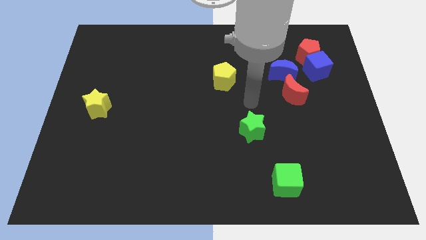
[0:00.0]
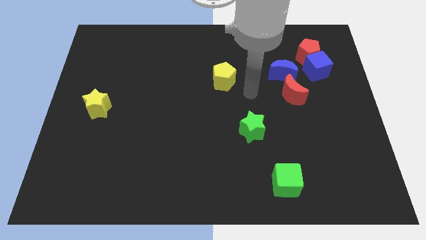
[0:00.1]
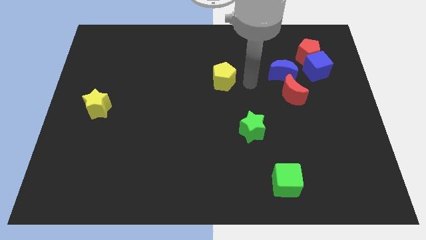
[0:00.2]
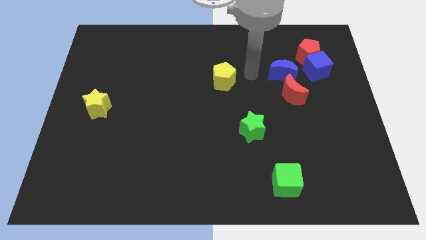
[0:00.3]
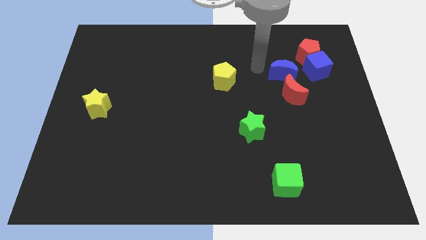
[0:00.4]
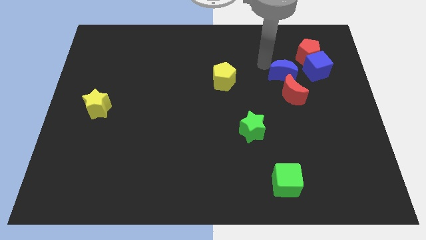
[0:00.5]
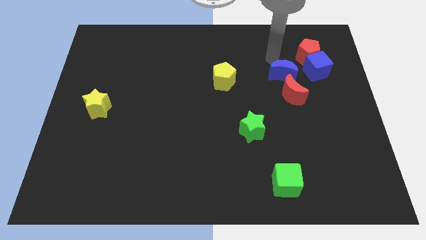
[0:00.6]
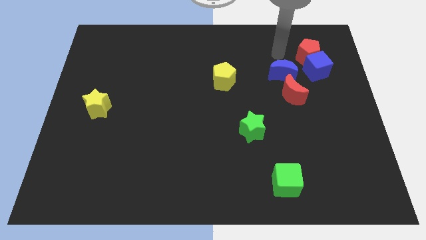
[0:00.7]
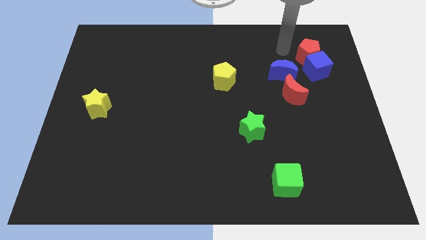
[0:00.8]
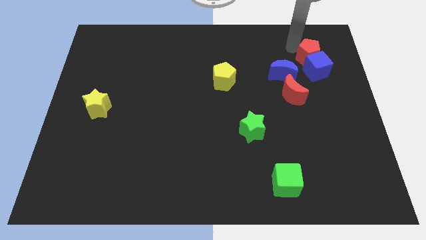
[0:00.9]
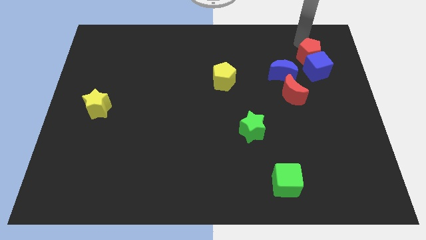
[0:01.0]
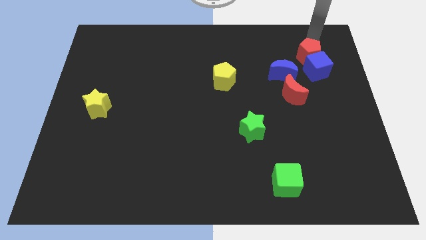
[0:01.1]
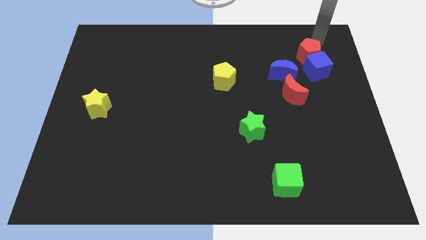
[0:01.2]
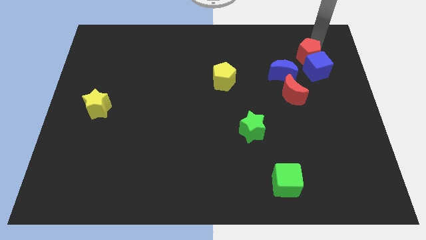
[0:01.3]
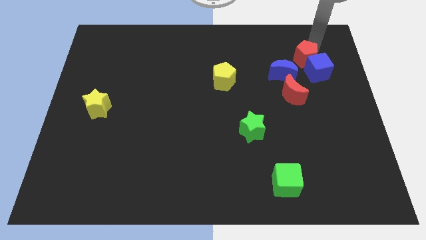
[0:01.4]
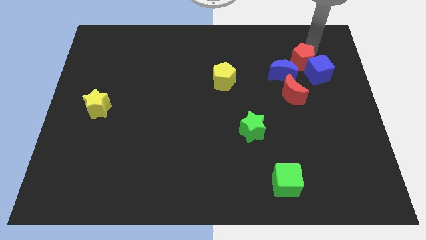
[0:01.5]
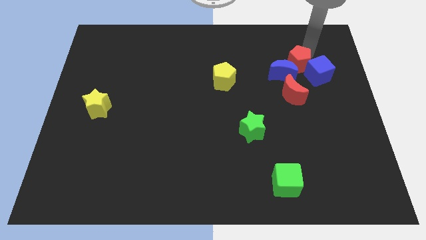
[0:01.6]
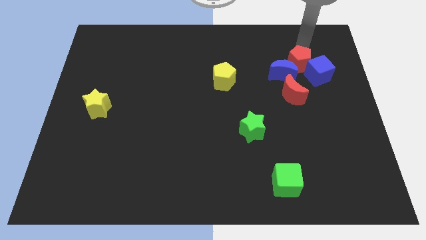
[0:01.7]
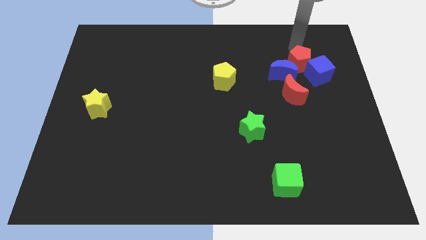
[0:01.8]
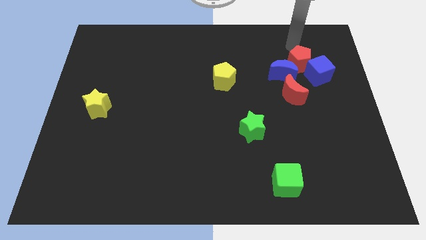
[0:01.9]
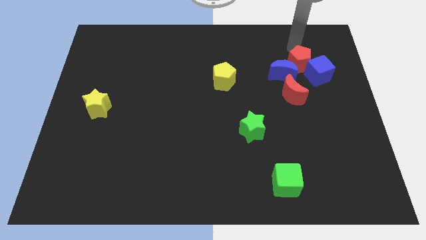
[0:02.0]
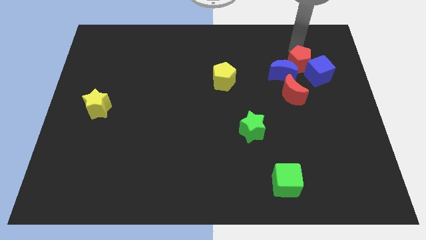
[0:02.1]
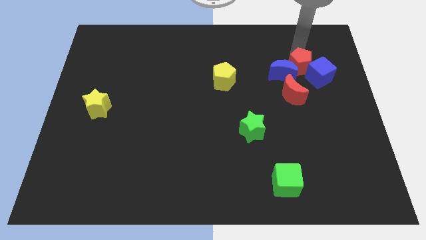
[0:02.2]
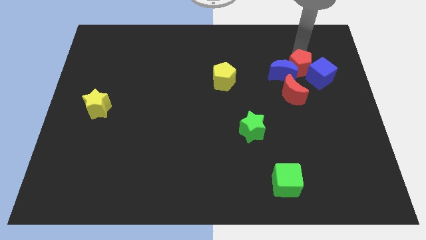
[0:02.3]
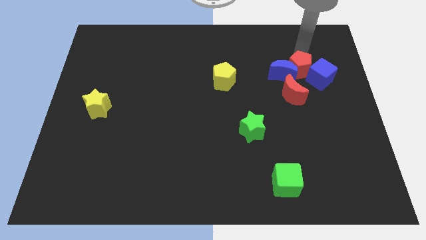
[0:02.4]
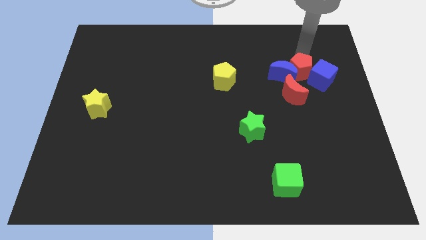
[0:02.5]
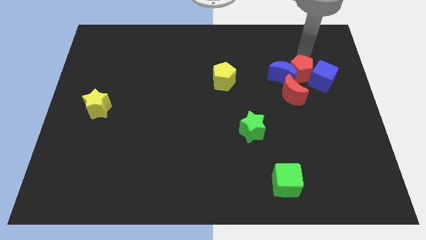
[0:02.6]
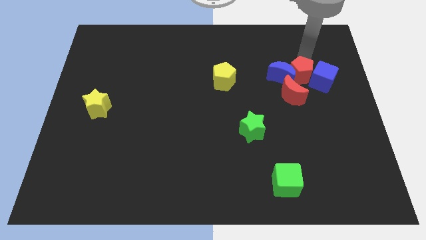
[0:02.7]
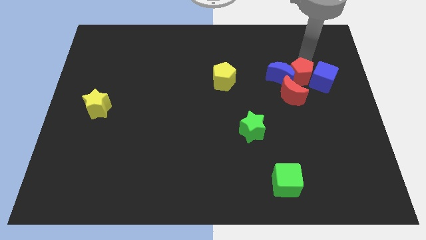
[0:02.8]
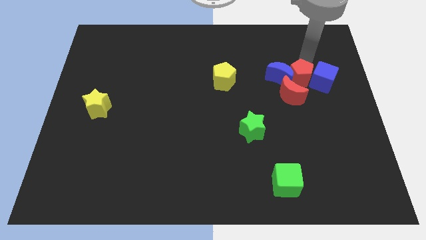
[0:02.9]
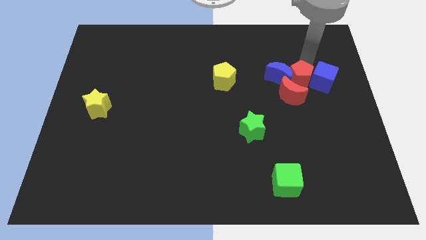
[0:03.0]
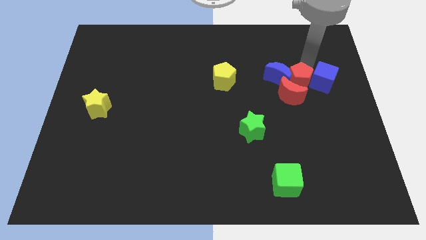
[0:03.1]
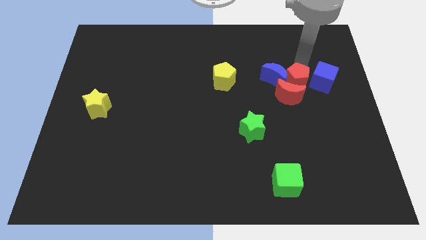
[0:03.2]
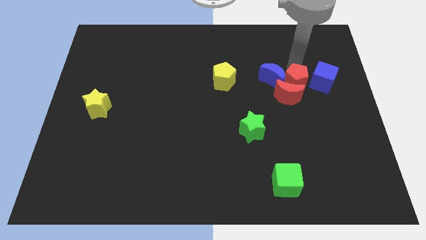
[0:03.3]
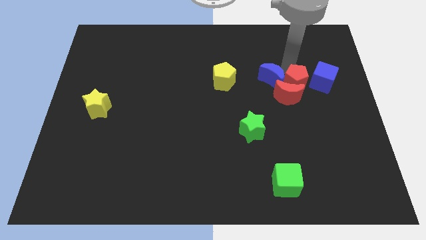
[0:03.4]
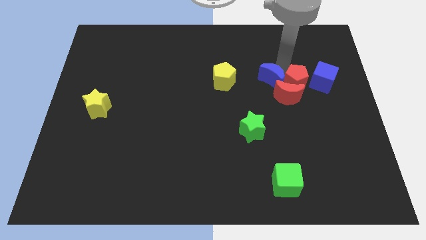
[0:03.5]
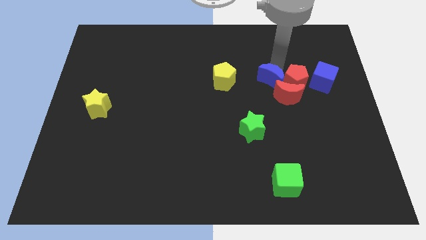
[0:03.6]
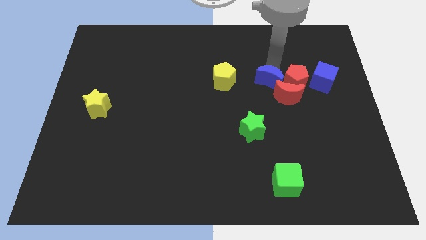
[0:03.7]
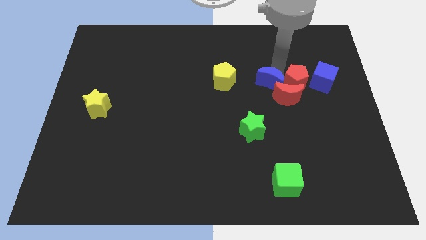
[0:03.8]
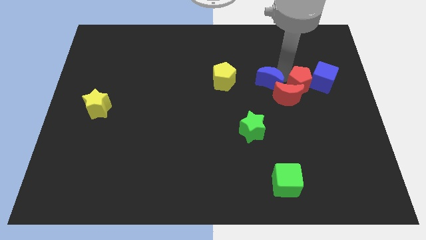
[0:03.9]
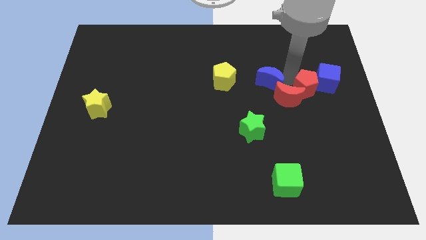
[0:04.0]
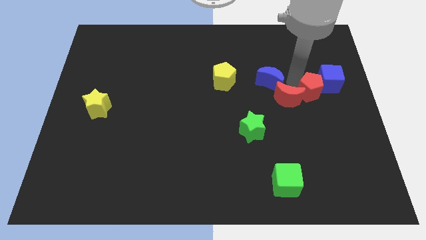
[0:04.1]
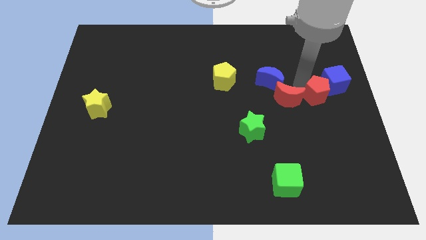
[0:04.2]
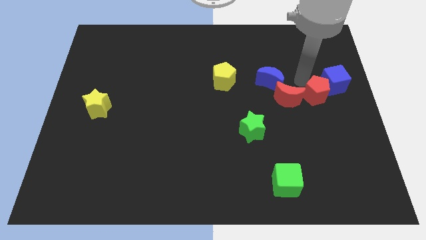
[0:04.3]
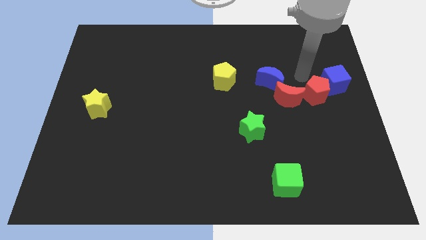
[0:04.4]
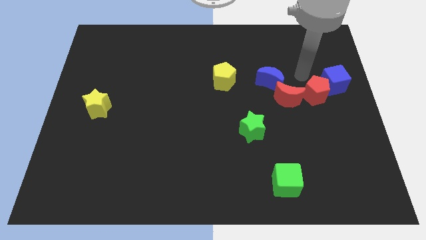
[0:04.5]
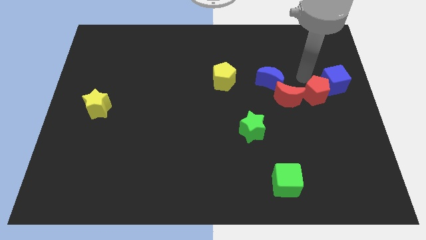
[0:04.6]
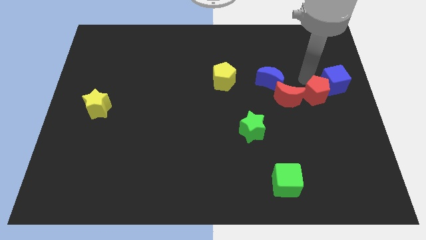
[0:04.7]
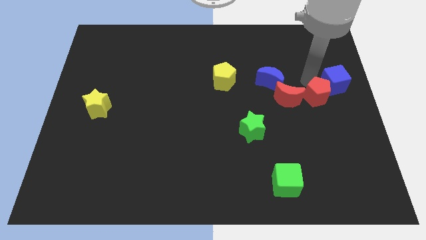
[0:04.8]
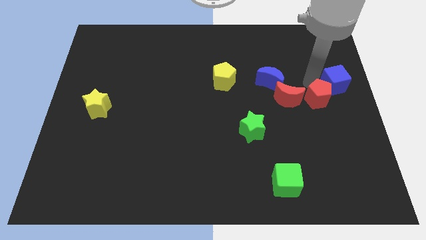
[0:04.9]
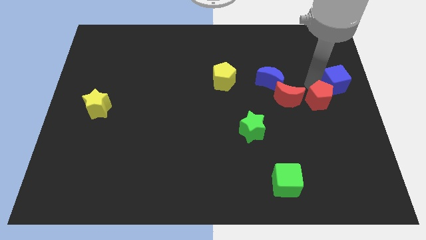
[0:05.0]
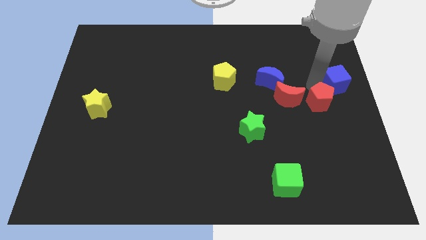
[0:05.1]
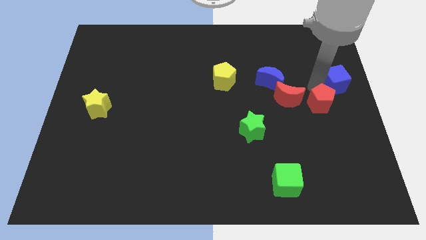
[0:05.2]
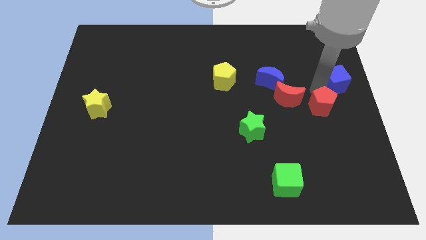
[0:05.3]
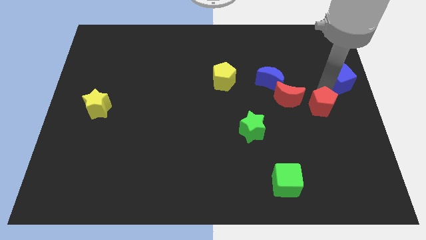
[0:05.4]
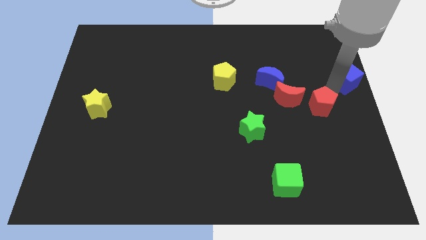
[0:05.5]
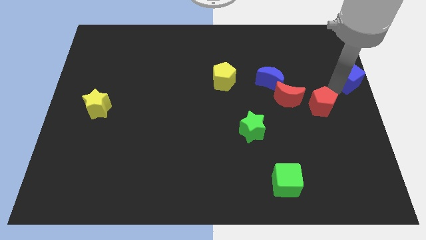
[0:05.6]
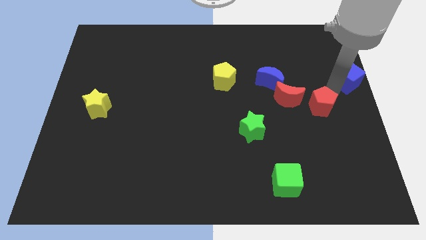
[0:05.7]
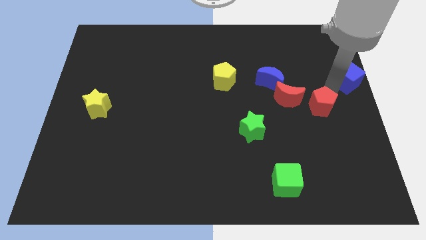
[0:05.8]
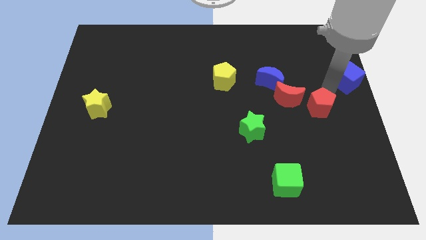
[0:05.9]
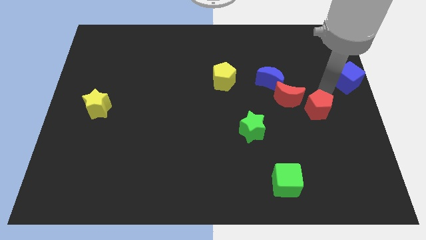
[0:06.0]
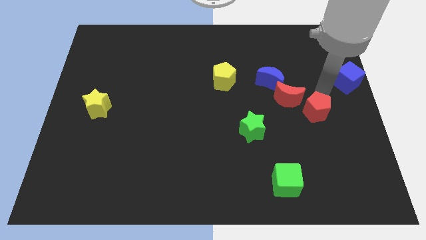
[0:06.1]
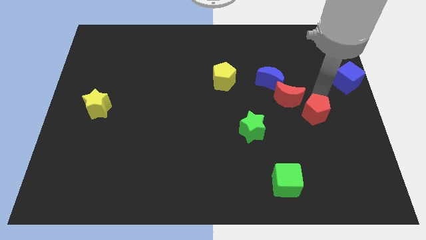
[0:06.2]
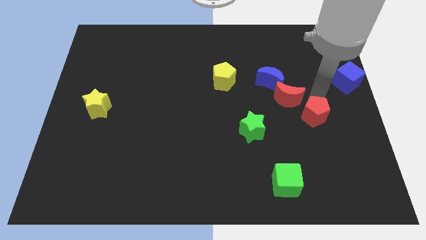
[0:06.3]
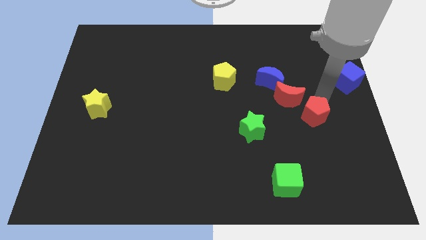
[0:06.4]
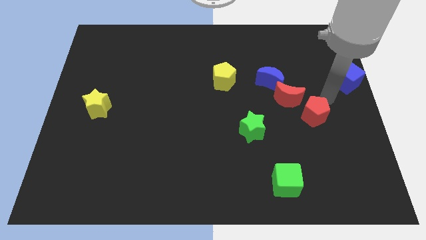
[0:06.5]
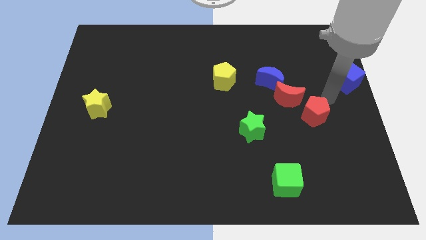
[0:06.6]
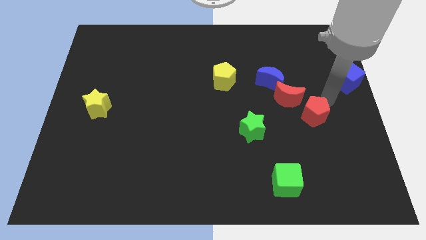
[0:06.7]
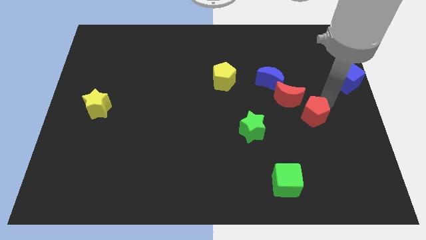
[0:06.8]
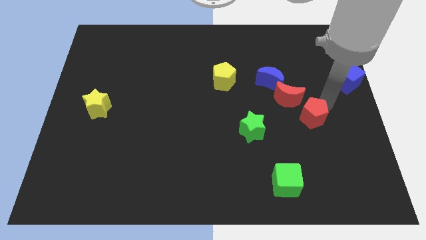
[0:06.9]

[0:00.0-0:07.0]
put the red pentagon to the right side of the green star

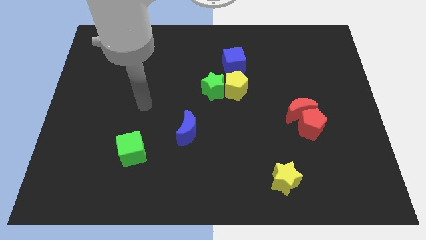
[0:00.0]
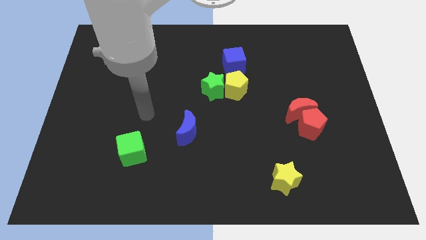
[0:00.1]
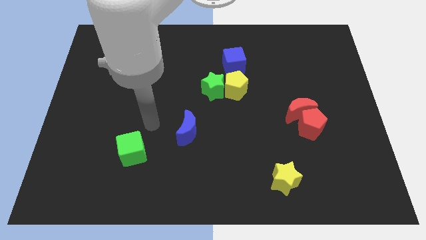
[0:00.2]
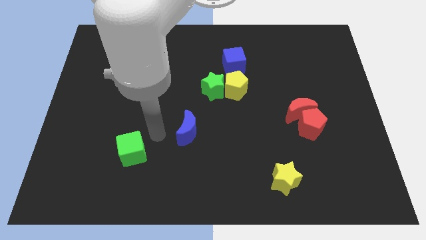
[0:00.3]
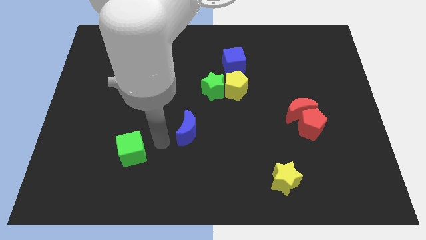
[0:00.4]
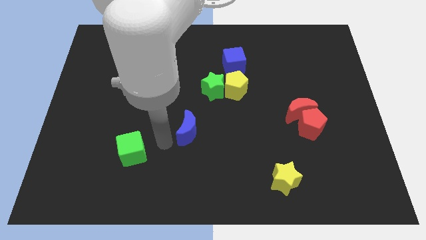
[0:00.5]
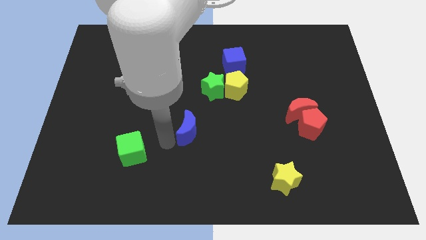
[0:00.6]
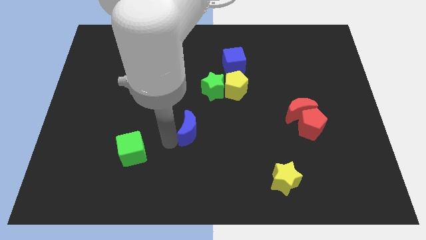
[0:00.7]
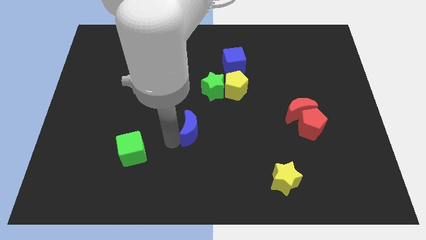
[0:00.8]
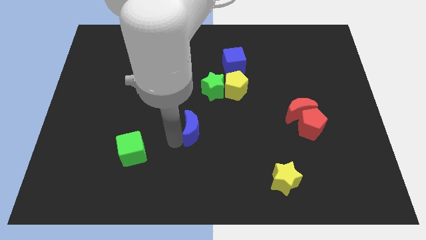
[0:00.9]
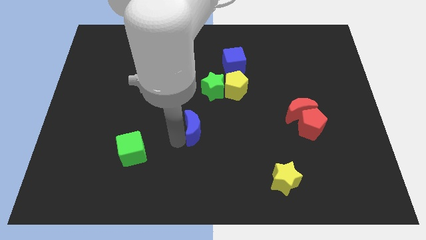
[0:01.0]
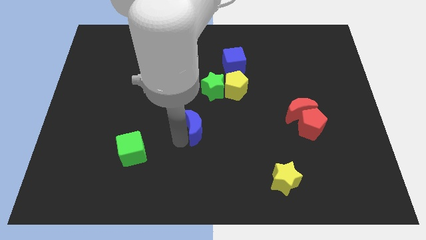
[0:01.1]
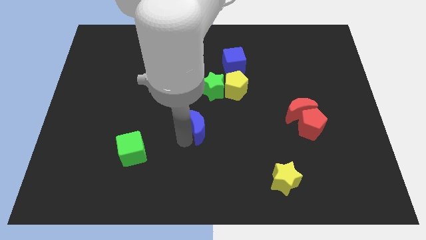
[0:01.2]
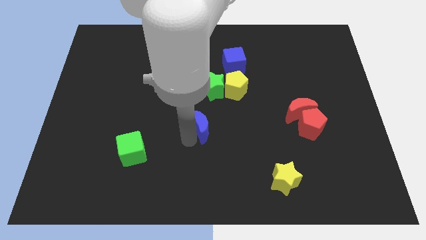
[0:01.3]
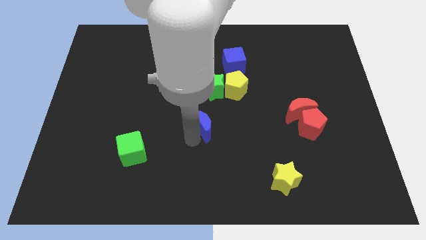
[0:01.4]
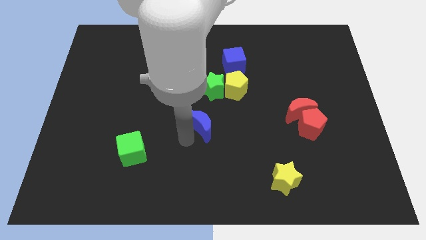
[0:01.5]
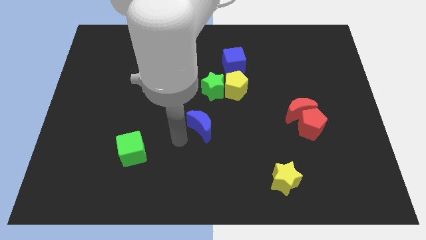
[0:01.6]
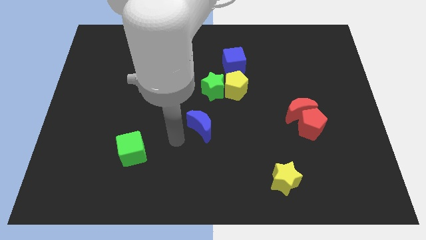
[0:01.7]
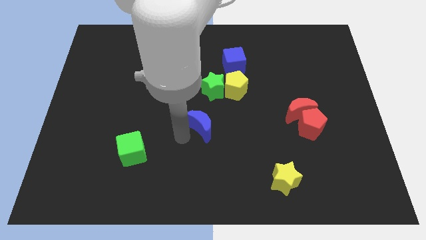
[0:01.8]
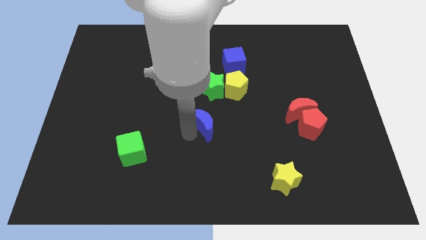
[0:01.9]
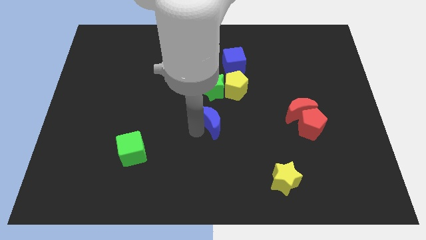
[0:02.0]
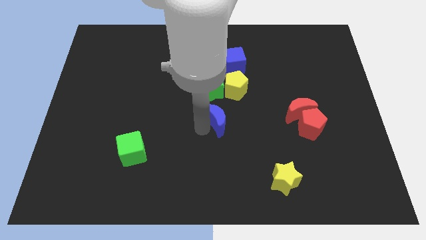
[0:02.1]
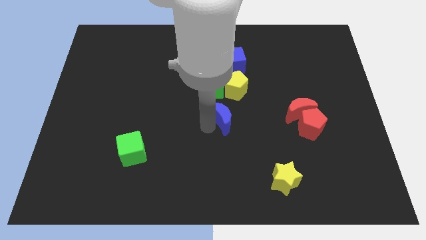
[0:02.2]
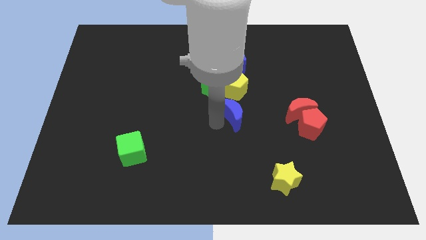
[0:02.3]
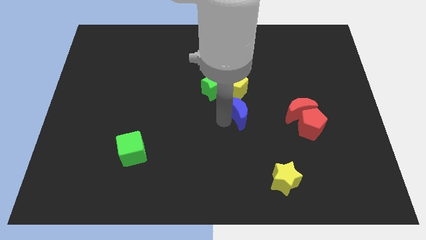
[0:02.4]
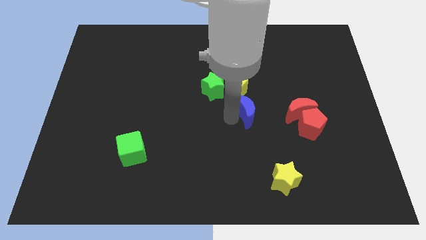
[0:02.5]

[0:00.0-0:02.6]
slide the blue moon to the bottom right of the yellow pentagon
